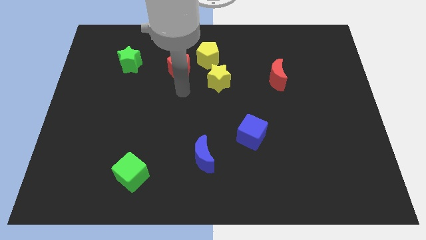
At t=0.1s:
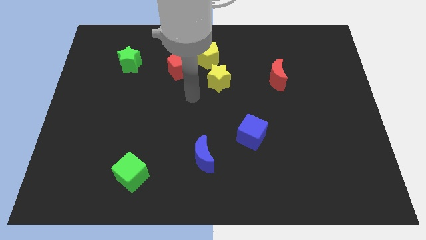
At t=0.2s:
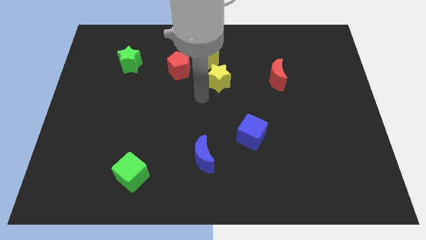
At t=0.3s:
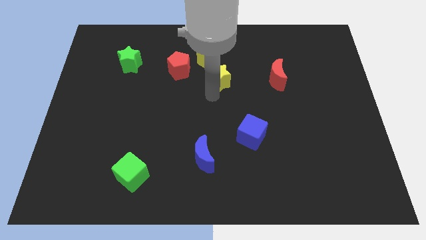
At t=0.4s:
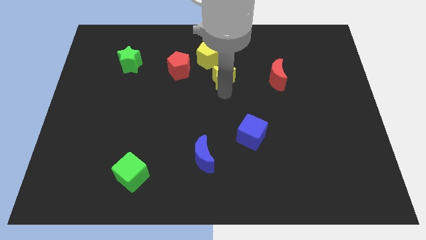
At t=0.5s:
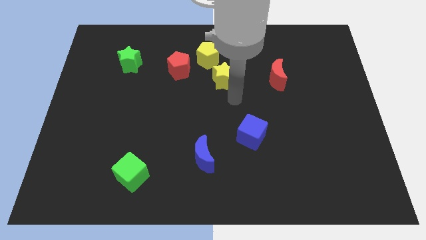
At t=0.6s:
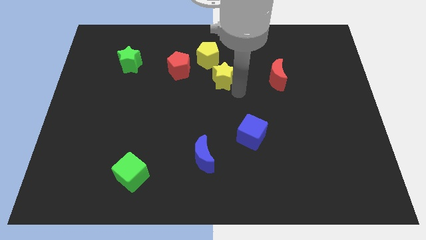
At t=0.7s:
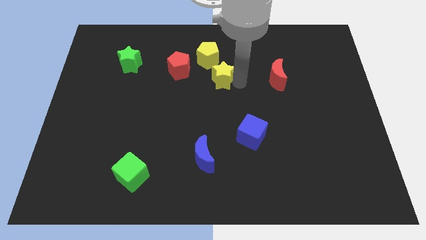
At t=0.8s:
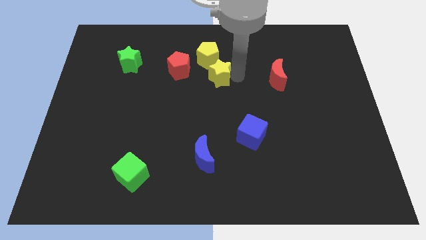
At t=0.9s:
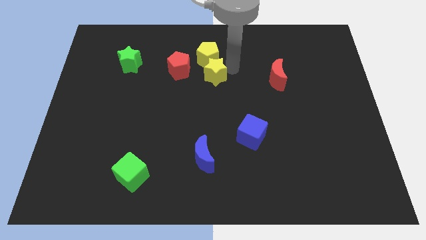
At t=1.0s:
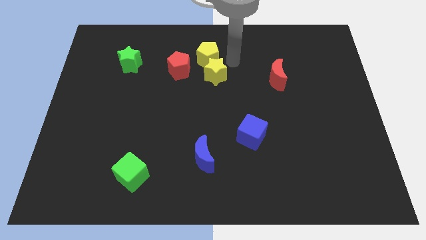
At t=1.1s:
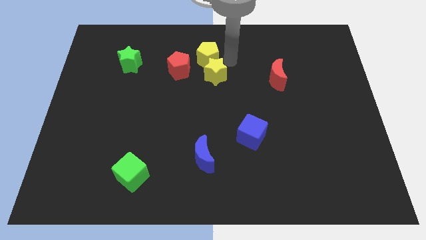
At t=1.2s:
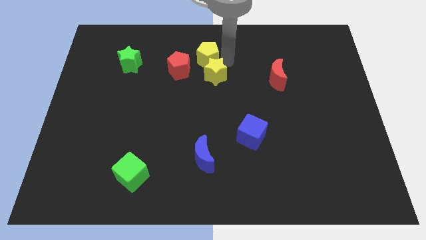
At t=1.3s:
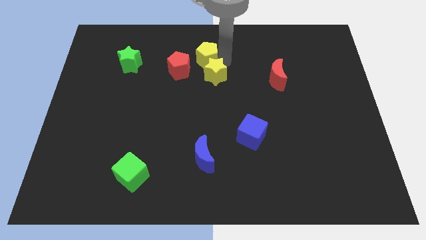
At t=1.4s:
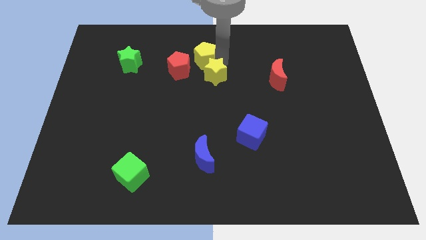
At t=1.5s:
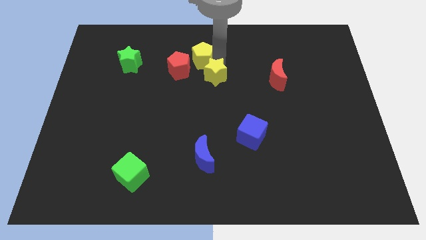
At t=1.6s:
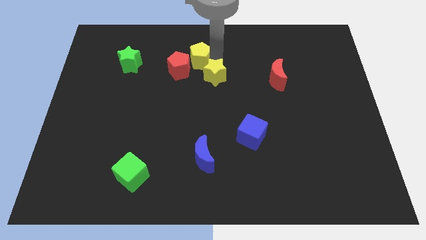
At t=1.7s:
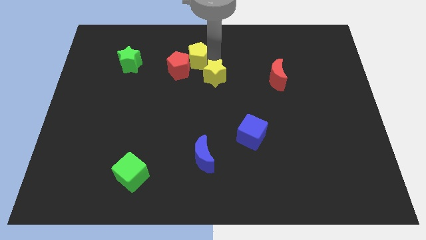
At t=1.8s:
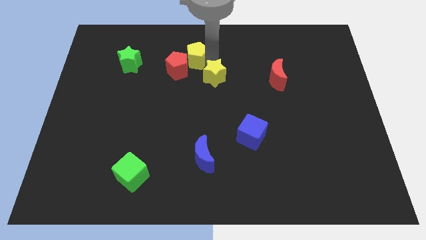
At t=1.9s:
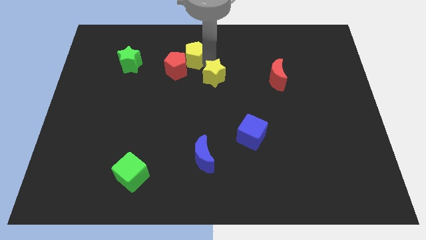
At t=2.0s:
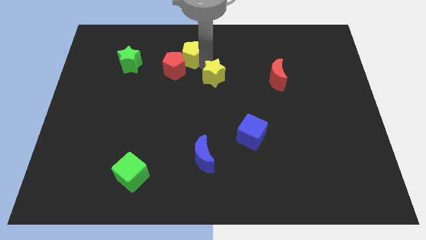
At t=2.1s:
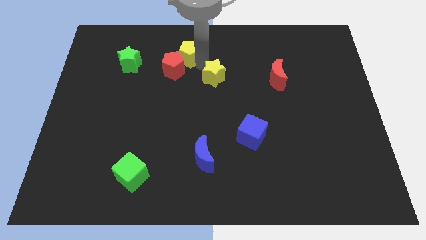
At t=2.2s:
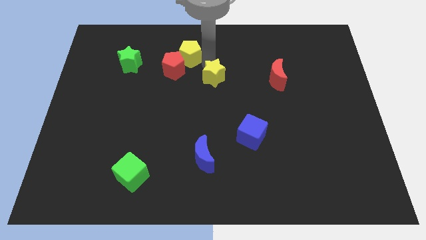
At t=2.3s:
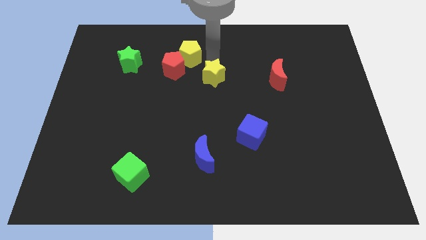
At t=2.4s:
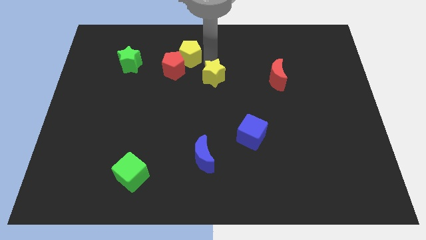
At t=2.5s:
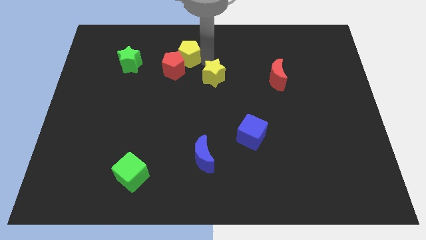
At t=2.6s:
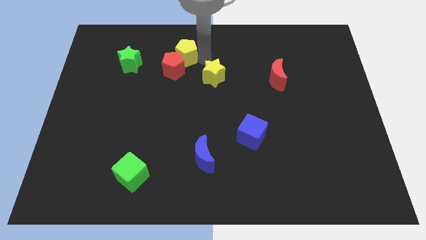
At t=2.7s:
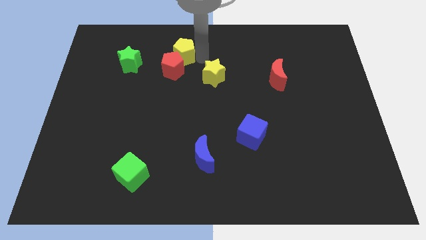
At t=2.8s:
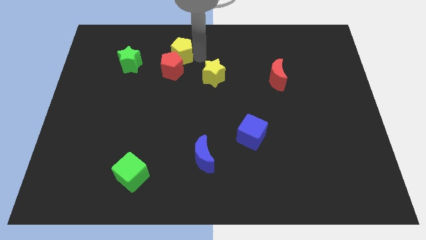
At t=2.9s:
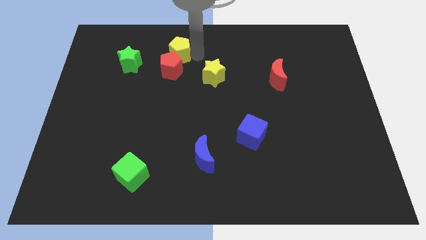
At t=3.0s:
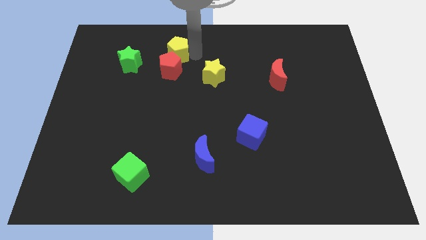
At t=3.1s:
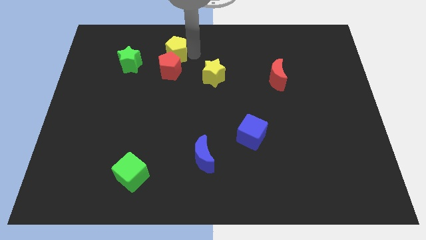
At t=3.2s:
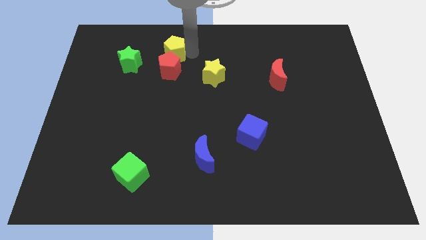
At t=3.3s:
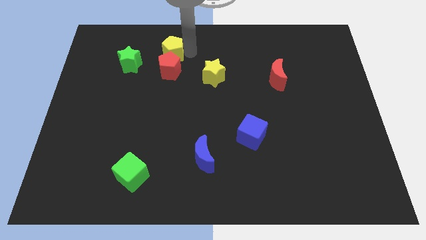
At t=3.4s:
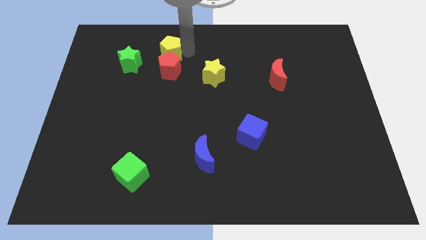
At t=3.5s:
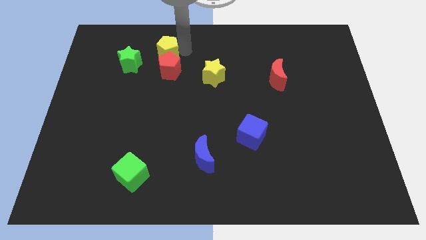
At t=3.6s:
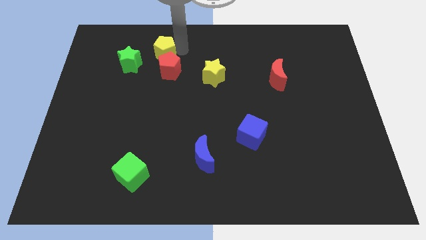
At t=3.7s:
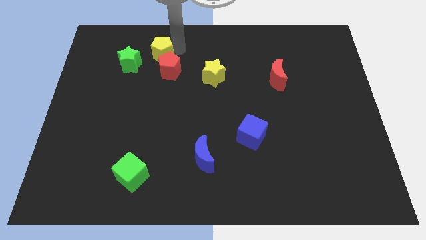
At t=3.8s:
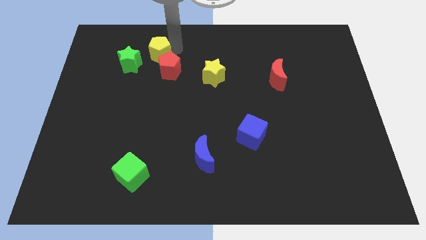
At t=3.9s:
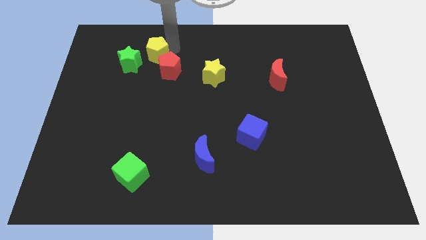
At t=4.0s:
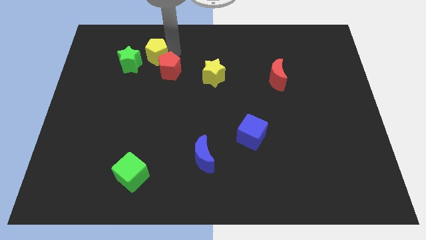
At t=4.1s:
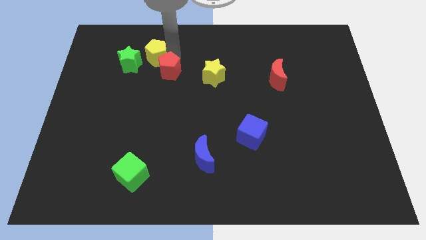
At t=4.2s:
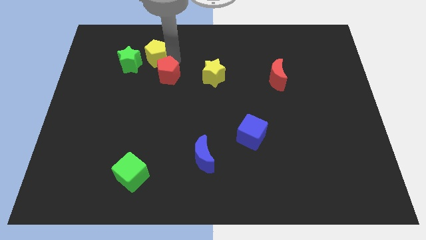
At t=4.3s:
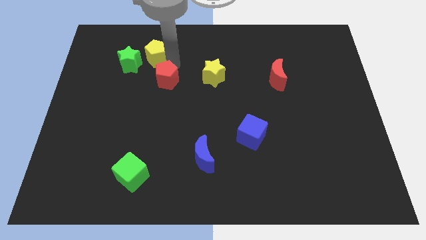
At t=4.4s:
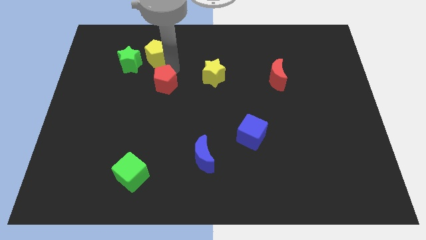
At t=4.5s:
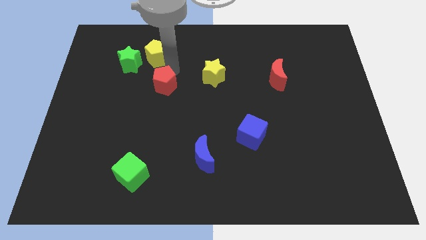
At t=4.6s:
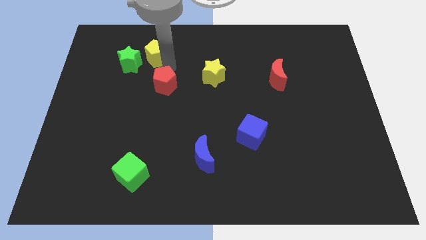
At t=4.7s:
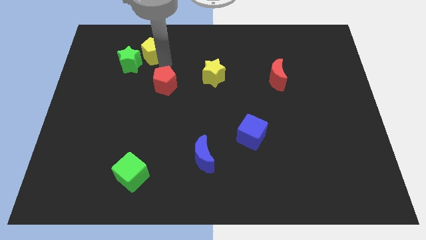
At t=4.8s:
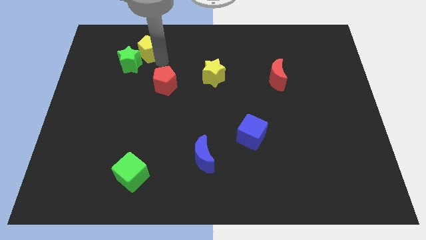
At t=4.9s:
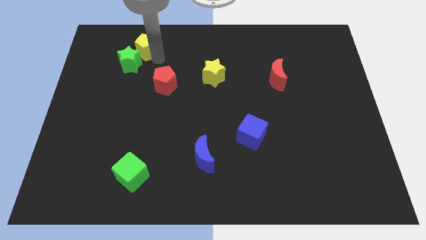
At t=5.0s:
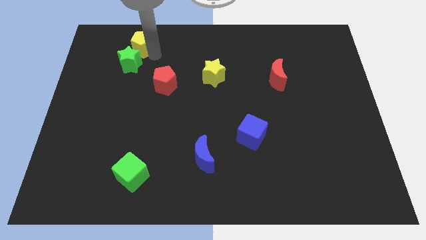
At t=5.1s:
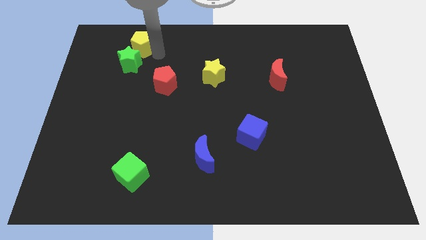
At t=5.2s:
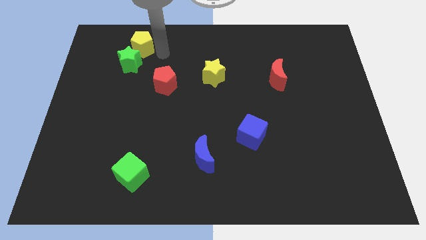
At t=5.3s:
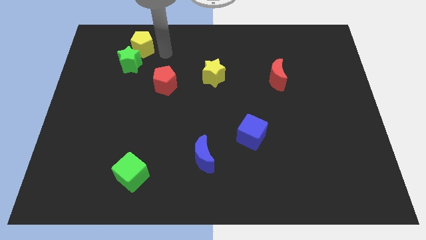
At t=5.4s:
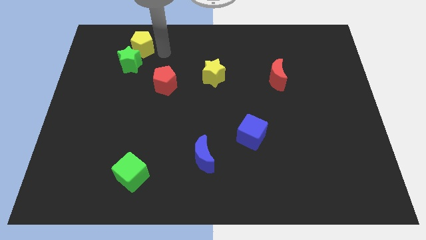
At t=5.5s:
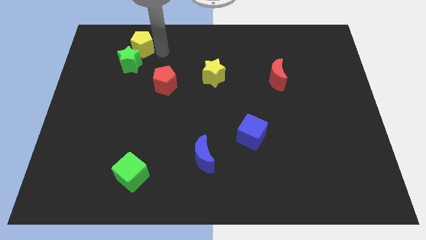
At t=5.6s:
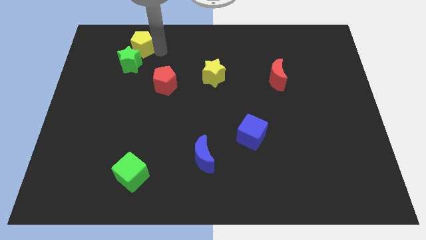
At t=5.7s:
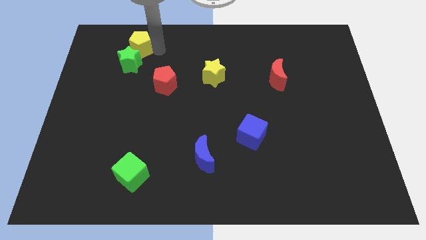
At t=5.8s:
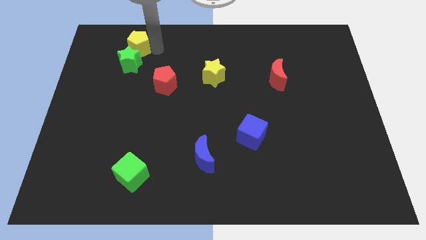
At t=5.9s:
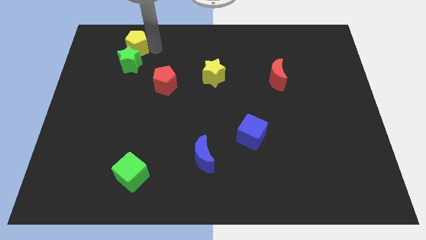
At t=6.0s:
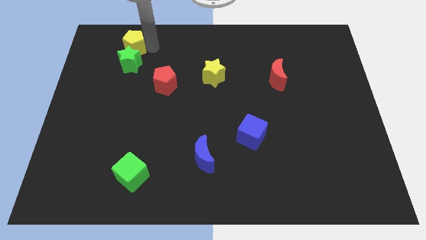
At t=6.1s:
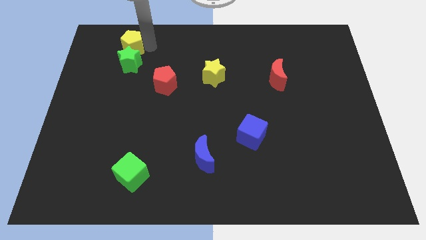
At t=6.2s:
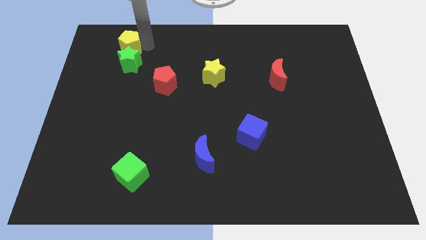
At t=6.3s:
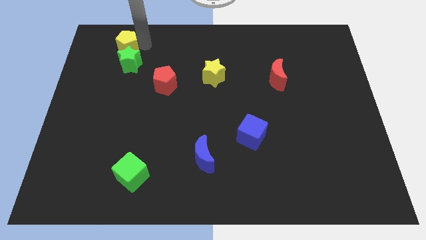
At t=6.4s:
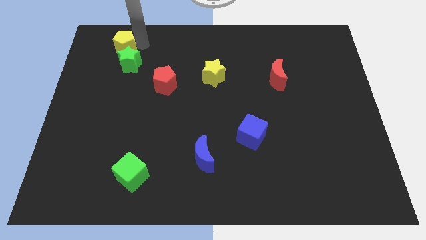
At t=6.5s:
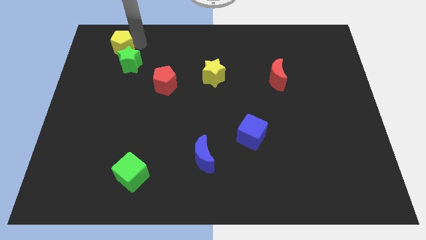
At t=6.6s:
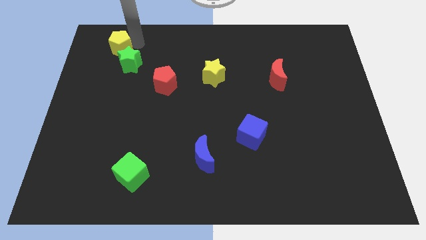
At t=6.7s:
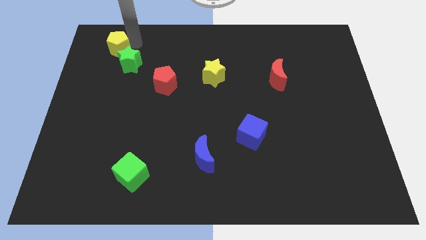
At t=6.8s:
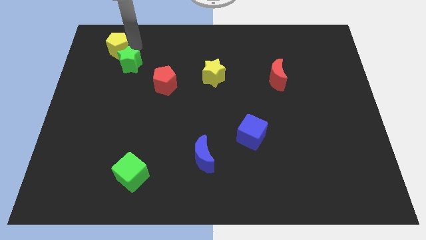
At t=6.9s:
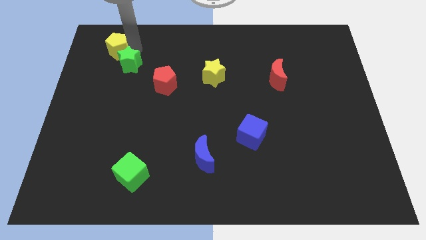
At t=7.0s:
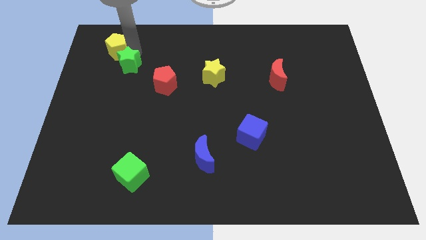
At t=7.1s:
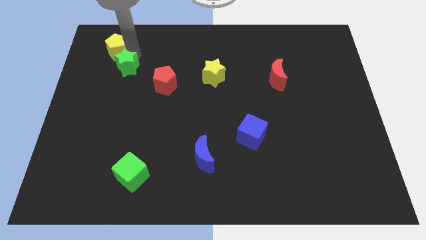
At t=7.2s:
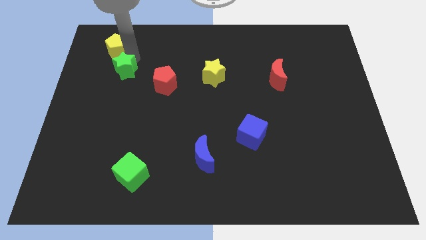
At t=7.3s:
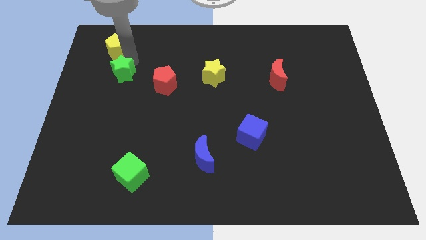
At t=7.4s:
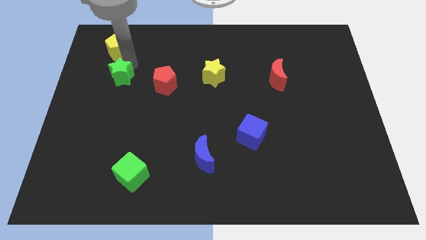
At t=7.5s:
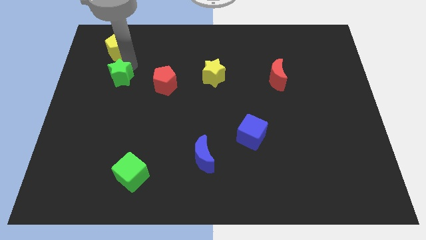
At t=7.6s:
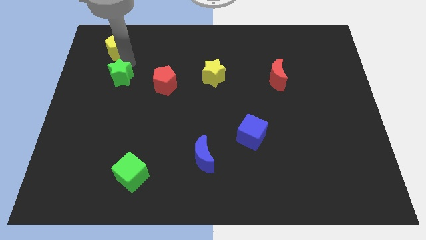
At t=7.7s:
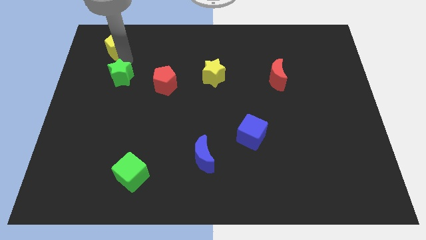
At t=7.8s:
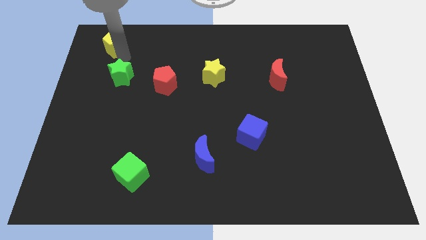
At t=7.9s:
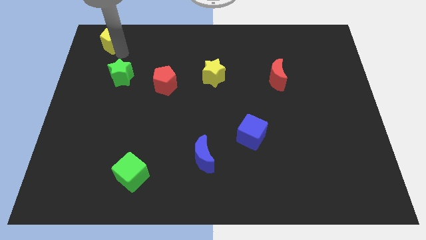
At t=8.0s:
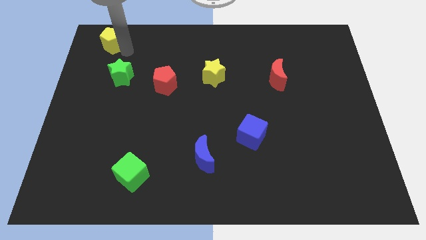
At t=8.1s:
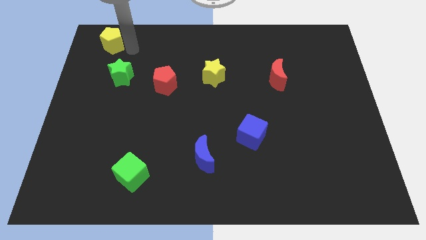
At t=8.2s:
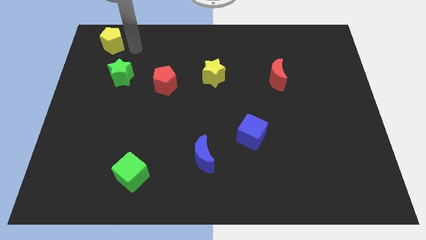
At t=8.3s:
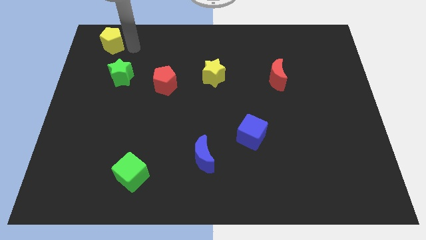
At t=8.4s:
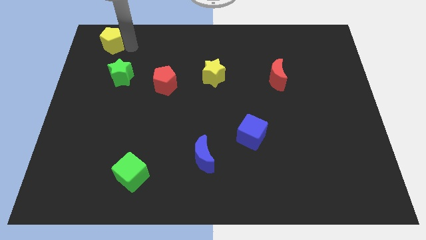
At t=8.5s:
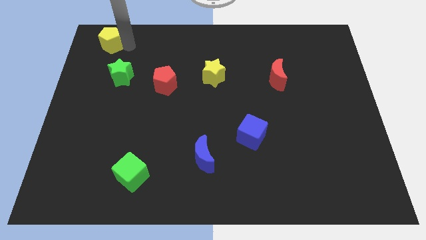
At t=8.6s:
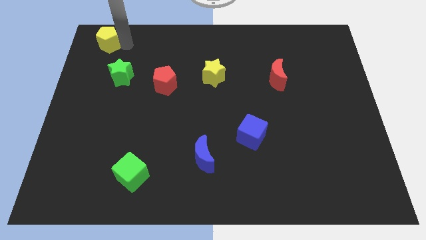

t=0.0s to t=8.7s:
put the yellow pentagon to the top left
